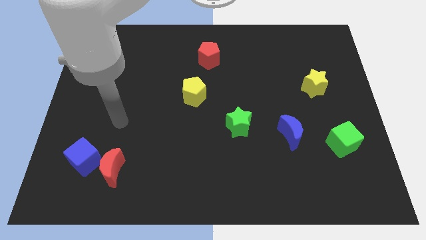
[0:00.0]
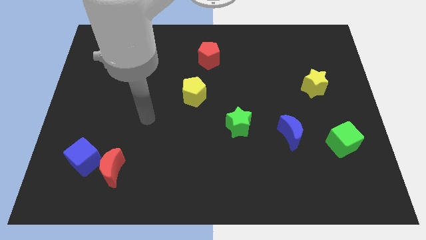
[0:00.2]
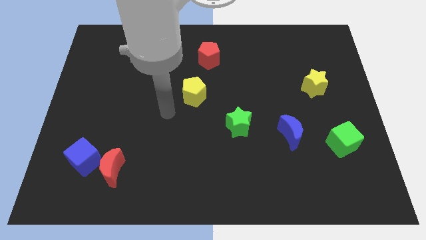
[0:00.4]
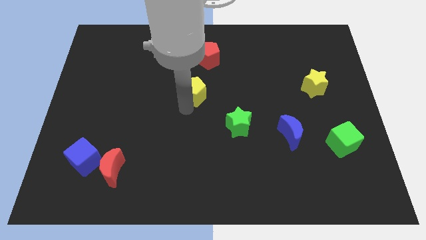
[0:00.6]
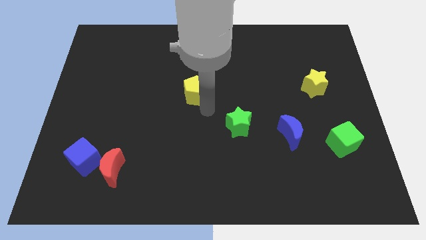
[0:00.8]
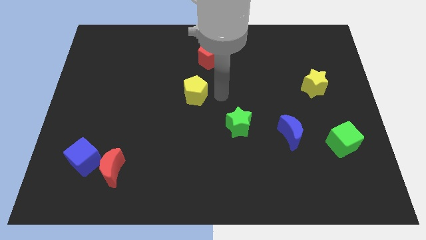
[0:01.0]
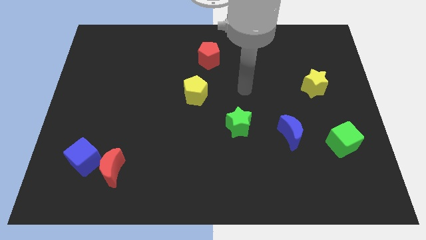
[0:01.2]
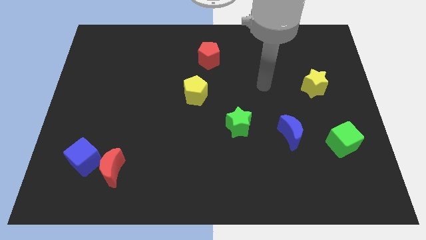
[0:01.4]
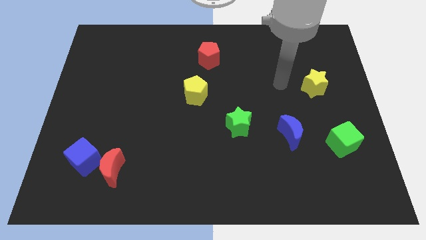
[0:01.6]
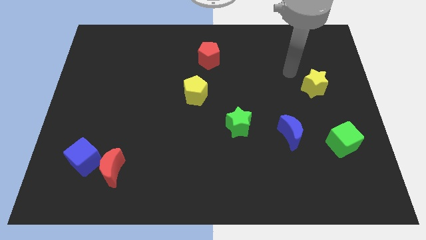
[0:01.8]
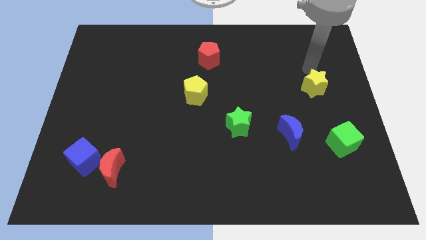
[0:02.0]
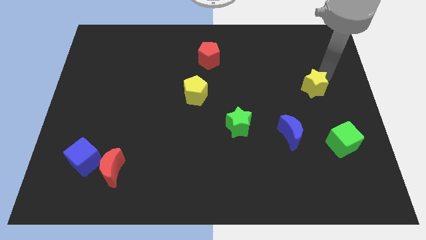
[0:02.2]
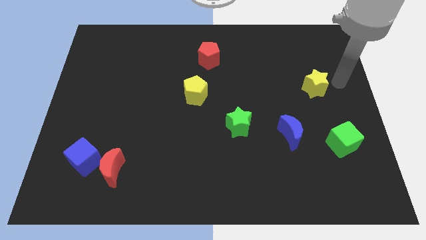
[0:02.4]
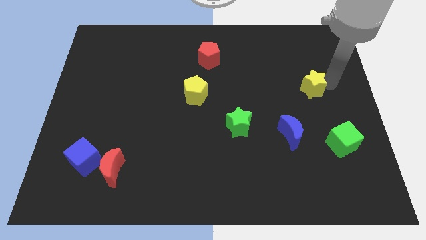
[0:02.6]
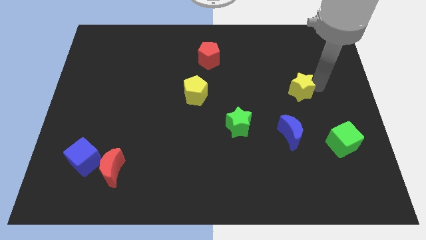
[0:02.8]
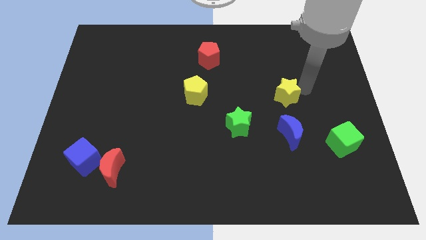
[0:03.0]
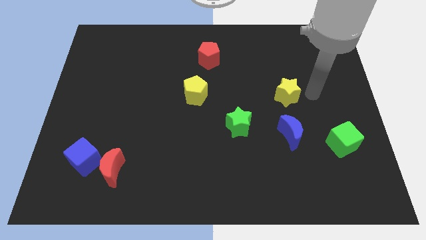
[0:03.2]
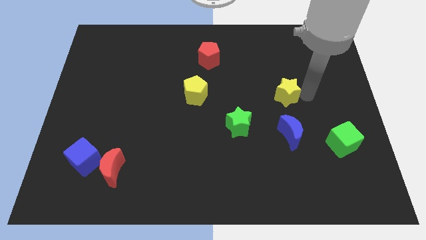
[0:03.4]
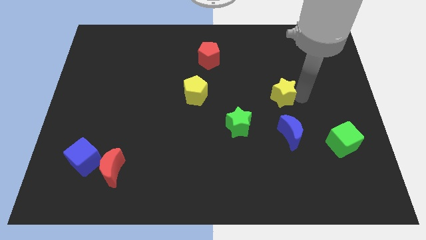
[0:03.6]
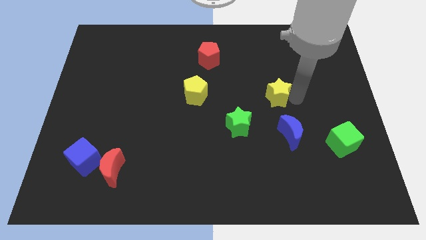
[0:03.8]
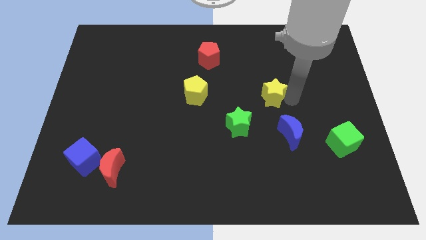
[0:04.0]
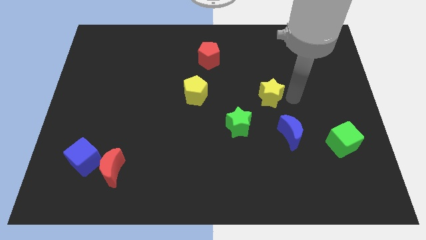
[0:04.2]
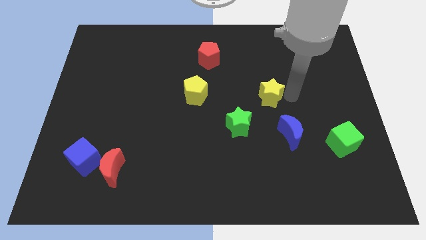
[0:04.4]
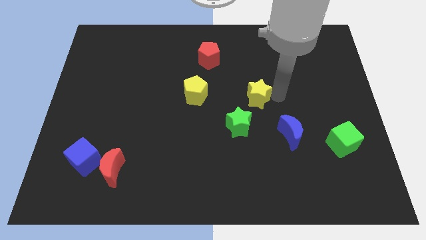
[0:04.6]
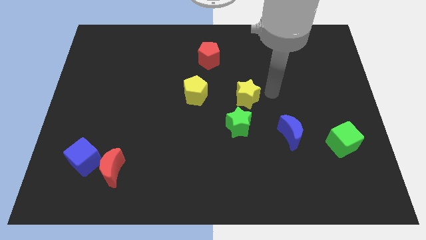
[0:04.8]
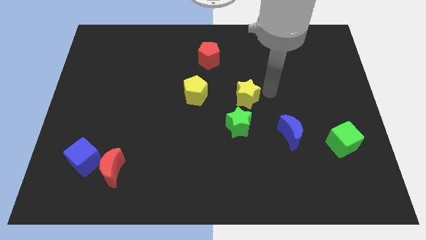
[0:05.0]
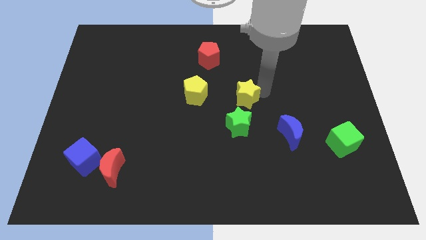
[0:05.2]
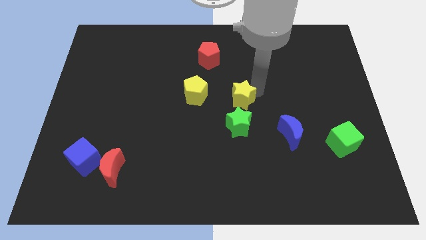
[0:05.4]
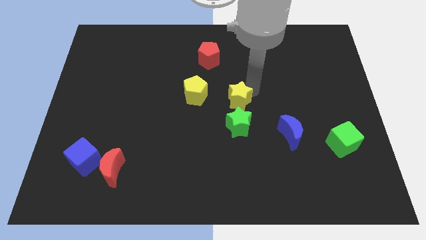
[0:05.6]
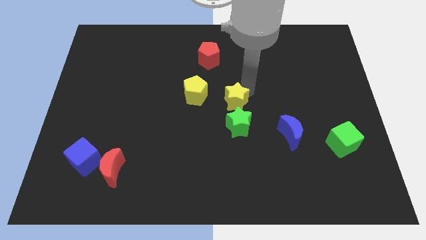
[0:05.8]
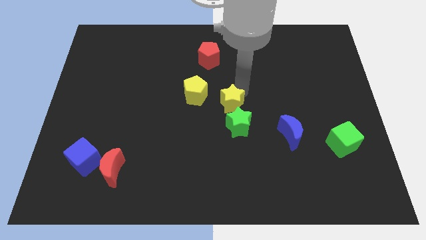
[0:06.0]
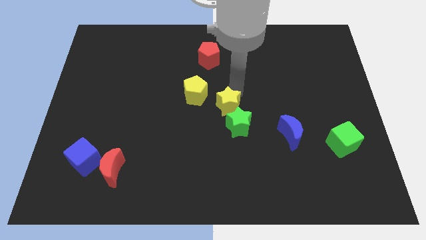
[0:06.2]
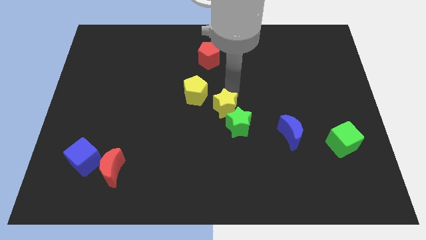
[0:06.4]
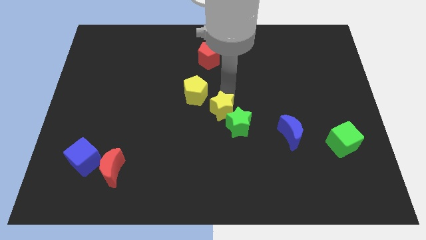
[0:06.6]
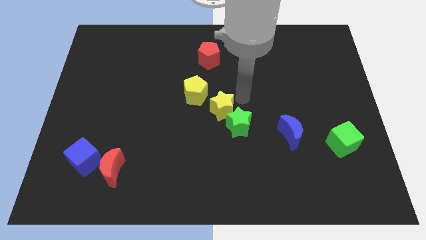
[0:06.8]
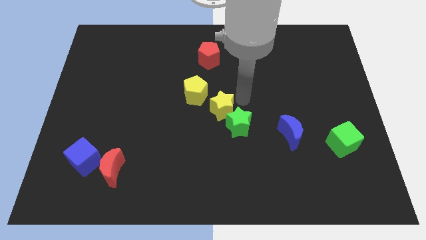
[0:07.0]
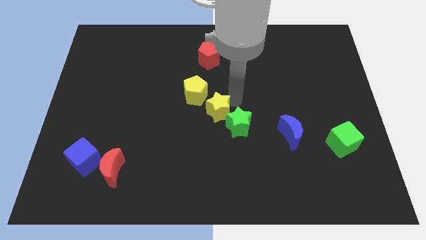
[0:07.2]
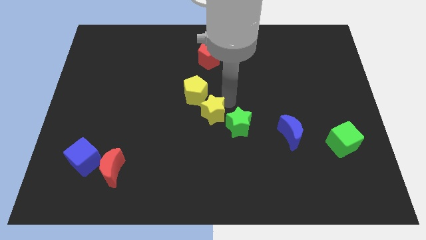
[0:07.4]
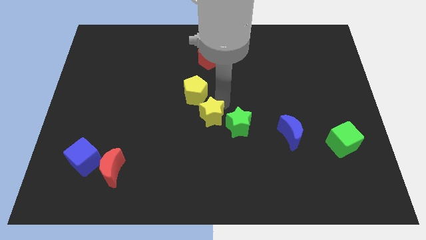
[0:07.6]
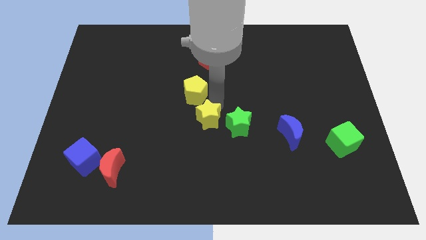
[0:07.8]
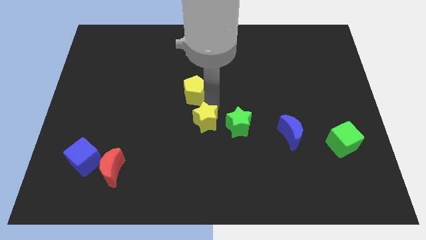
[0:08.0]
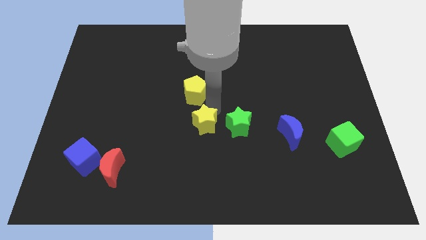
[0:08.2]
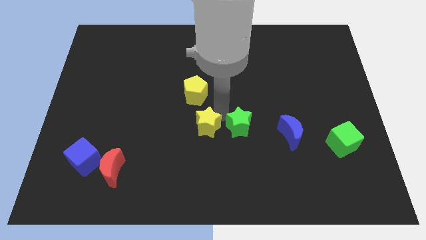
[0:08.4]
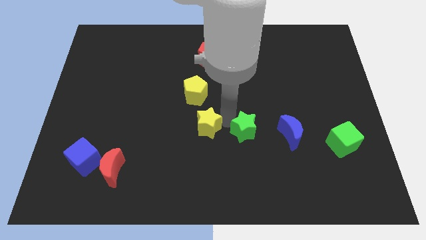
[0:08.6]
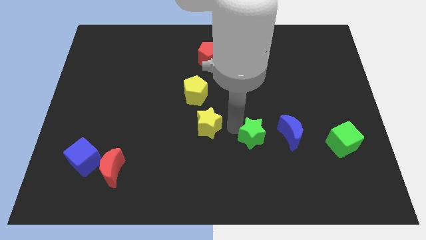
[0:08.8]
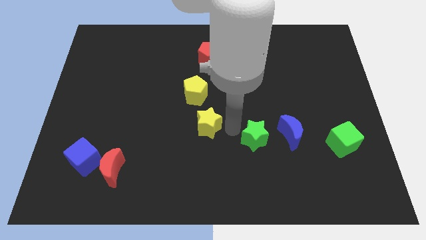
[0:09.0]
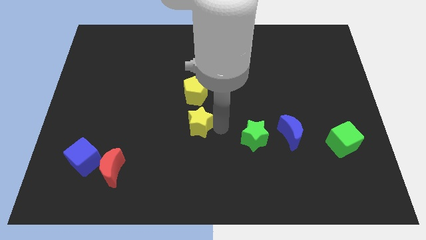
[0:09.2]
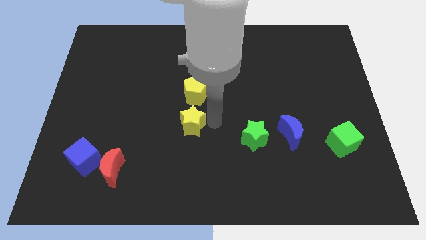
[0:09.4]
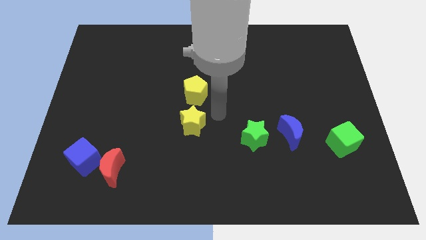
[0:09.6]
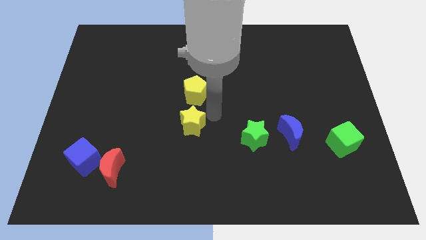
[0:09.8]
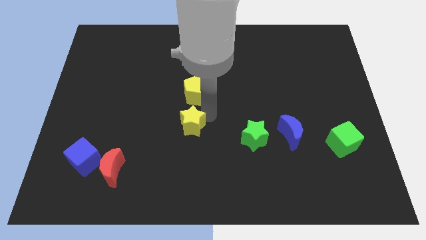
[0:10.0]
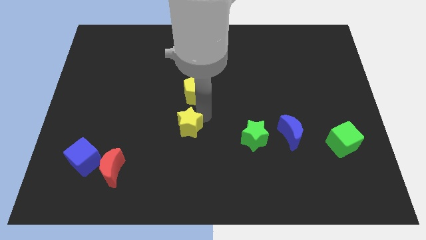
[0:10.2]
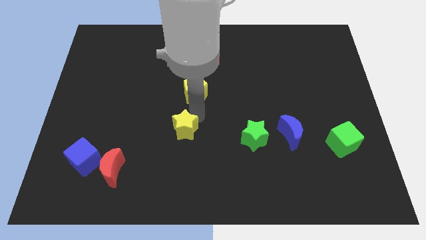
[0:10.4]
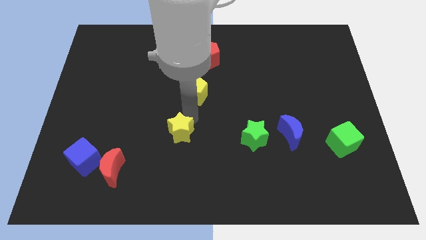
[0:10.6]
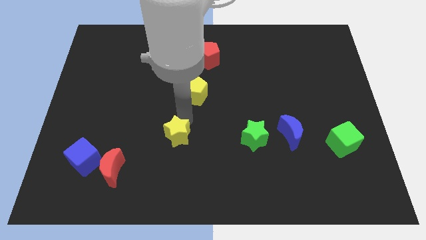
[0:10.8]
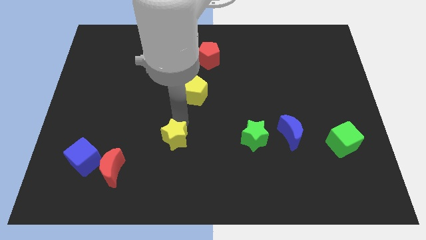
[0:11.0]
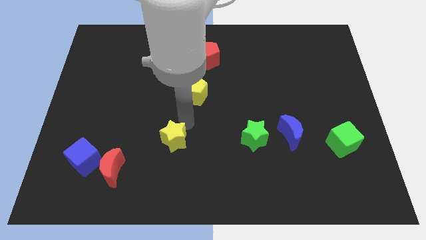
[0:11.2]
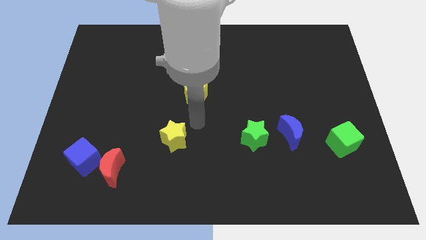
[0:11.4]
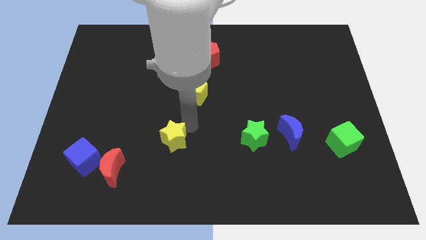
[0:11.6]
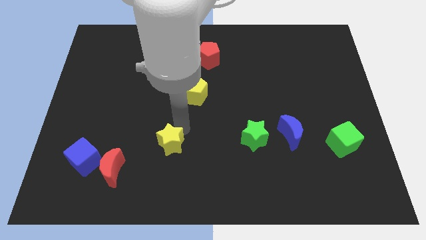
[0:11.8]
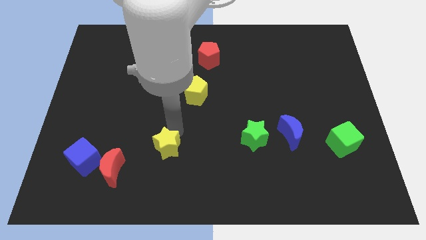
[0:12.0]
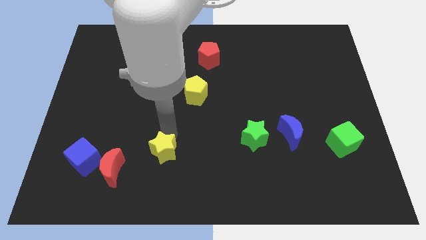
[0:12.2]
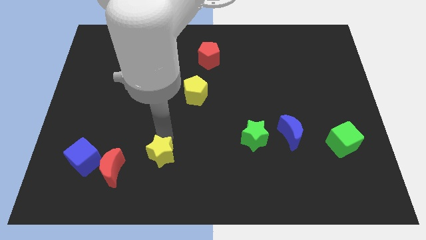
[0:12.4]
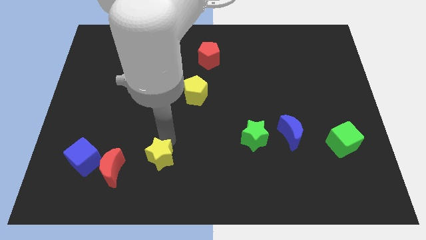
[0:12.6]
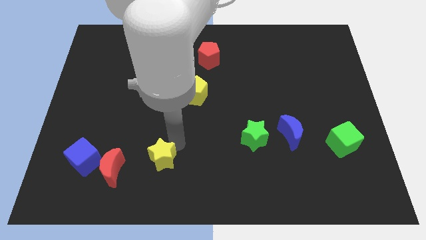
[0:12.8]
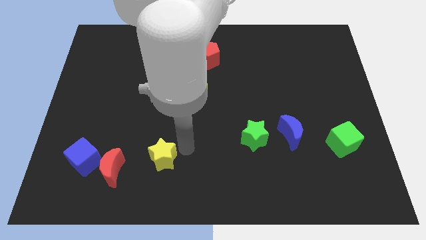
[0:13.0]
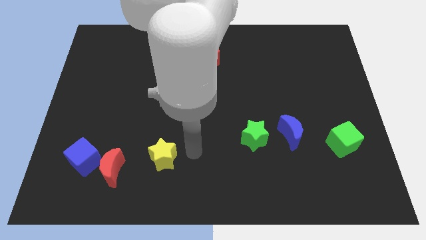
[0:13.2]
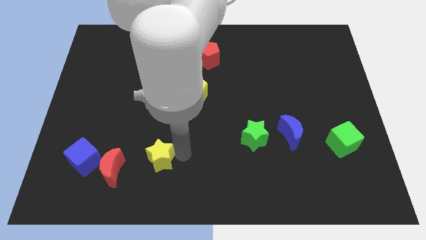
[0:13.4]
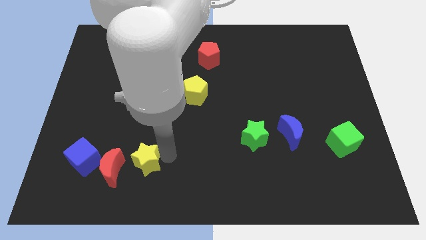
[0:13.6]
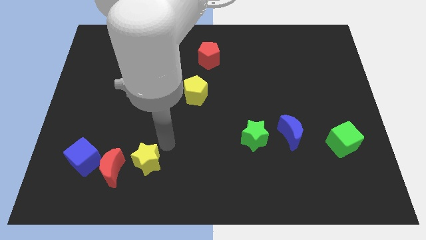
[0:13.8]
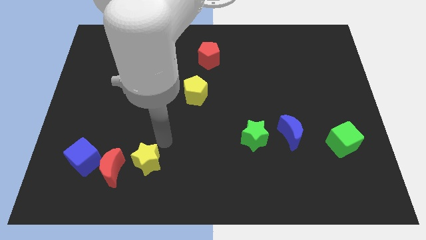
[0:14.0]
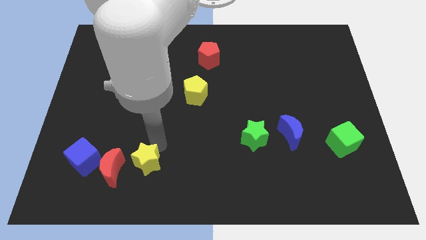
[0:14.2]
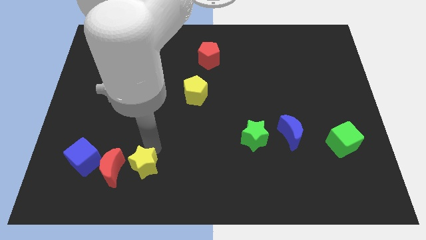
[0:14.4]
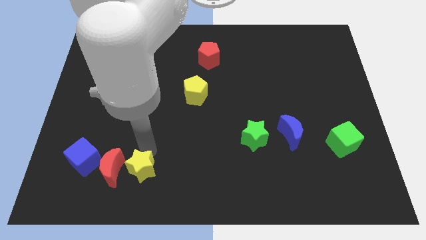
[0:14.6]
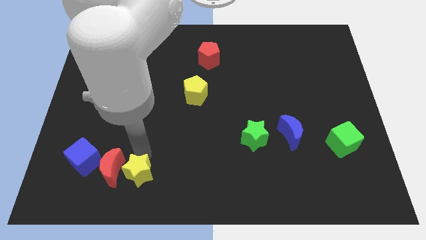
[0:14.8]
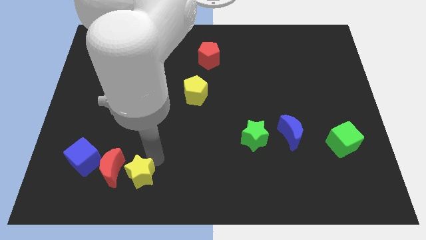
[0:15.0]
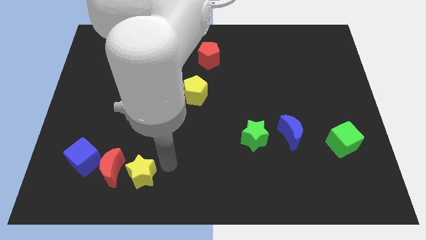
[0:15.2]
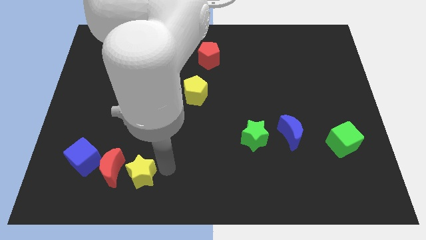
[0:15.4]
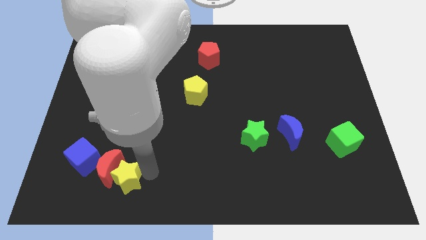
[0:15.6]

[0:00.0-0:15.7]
push the yellow star diagonally down and to the right of the blue cube
